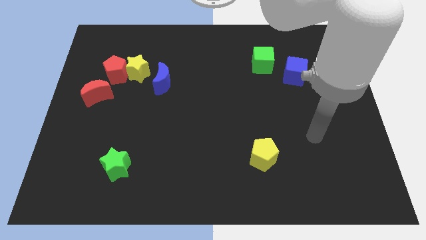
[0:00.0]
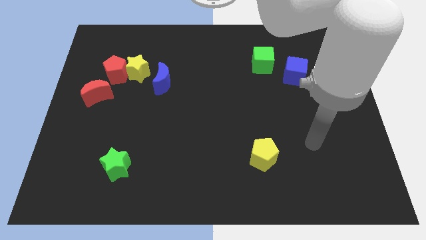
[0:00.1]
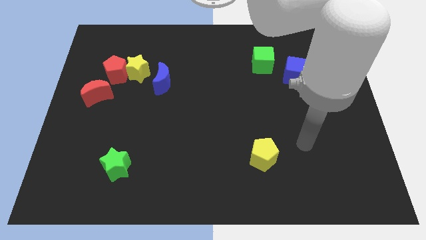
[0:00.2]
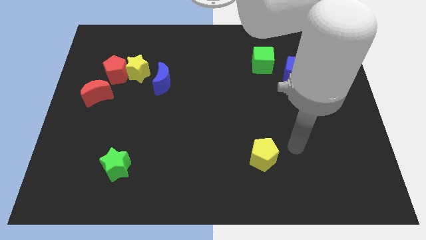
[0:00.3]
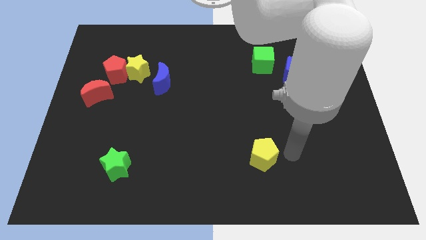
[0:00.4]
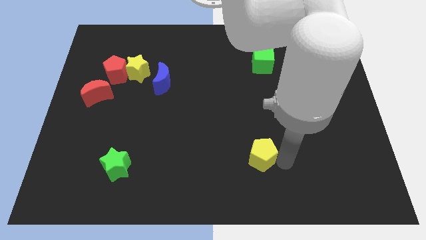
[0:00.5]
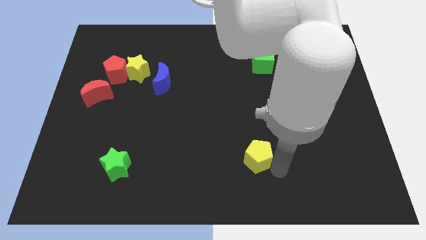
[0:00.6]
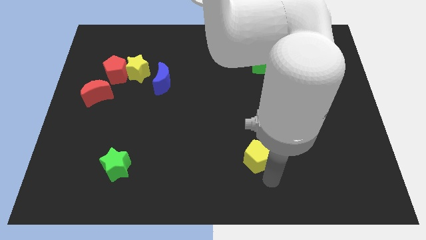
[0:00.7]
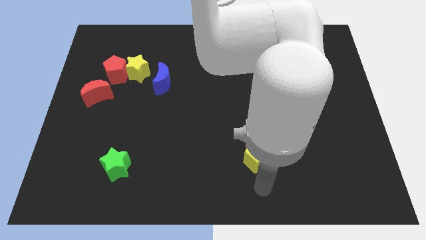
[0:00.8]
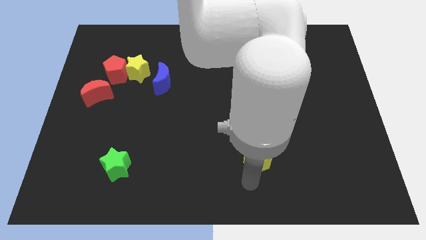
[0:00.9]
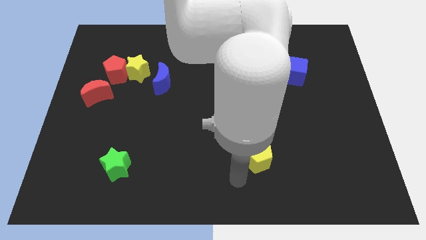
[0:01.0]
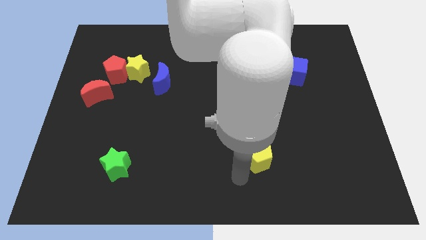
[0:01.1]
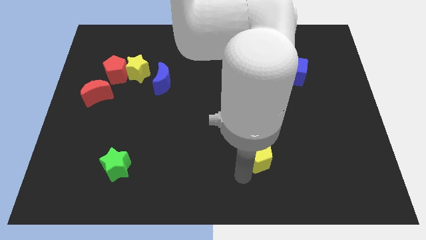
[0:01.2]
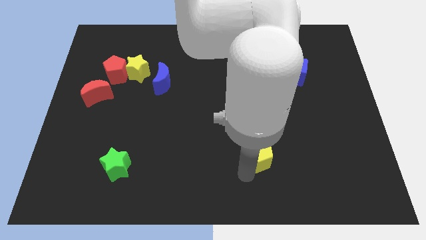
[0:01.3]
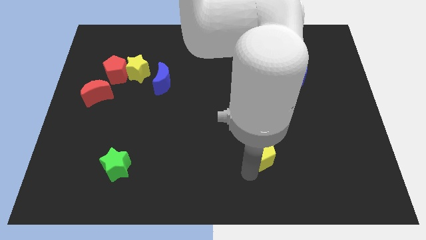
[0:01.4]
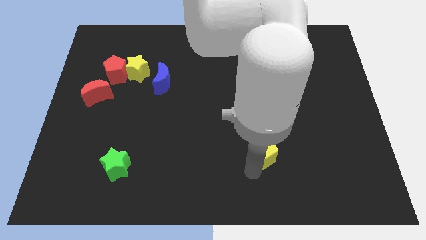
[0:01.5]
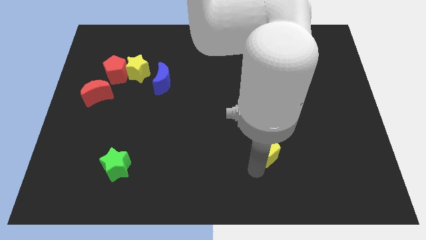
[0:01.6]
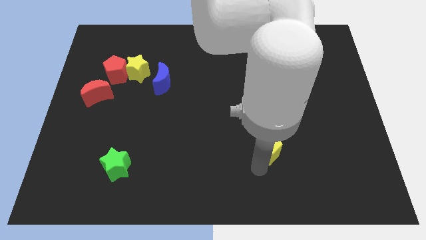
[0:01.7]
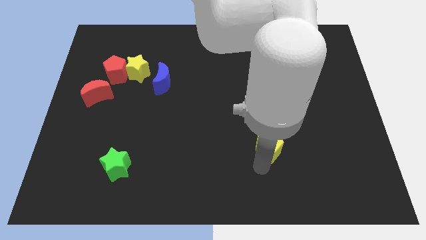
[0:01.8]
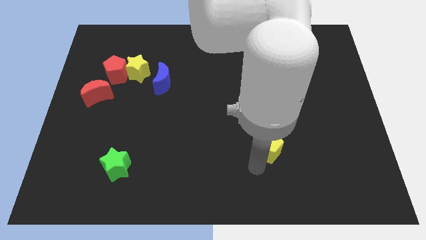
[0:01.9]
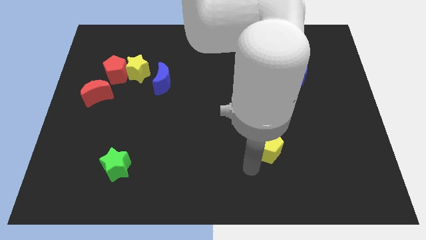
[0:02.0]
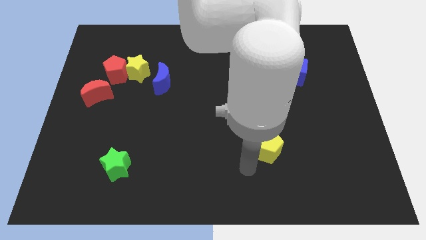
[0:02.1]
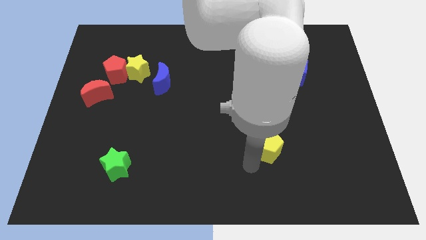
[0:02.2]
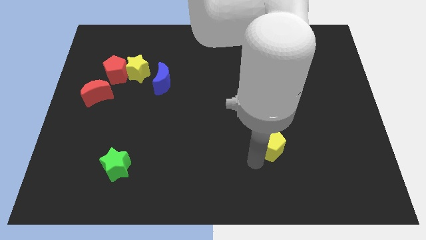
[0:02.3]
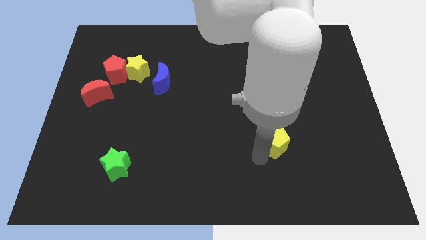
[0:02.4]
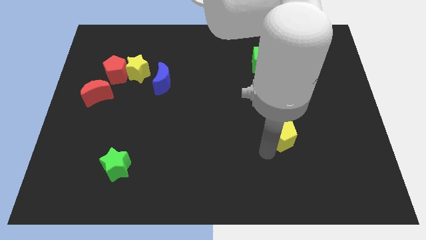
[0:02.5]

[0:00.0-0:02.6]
slightly slide the yellow pentagon upwards and right diagonally

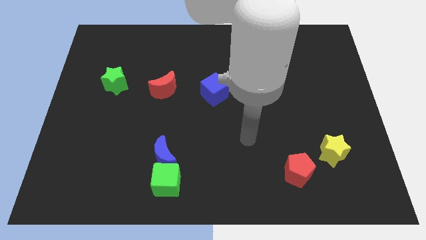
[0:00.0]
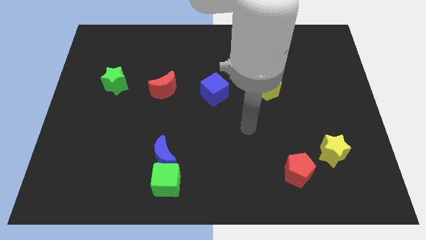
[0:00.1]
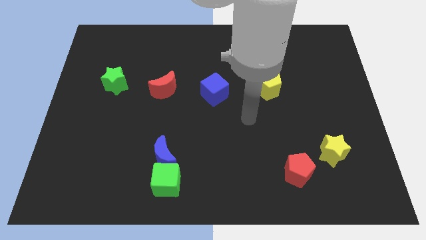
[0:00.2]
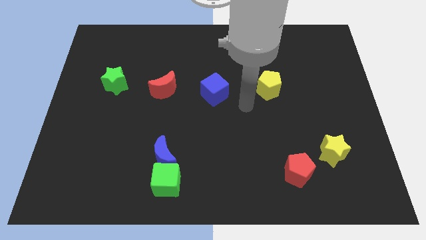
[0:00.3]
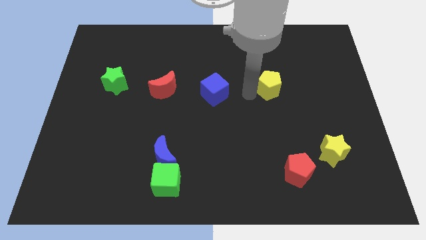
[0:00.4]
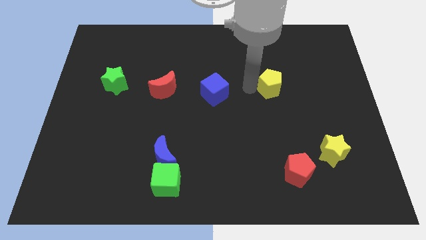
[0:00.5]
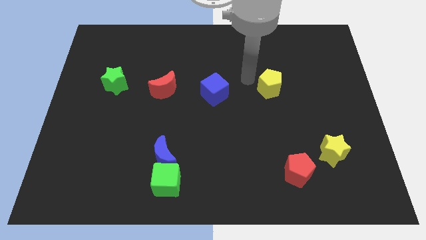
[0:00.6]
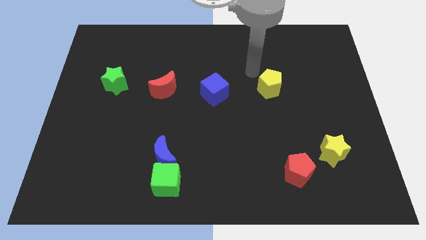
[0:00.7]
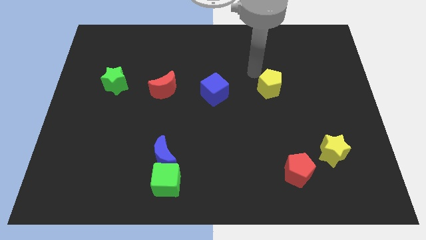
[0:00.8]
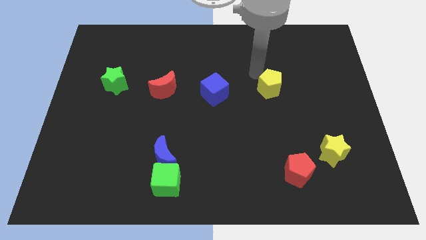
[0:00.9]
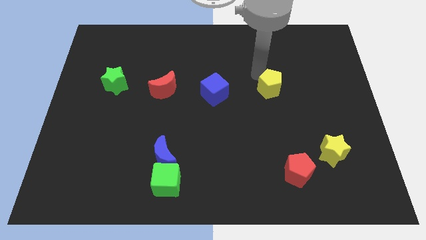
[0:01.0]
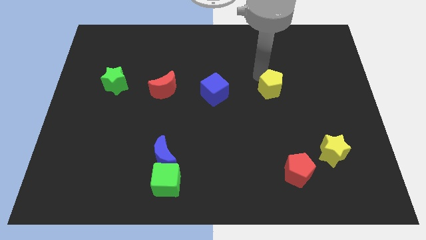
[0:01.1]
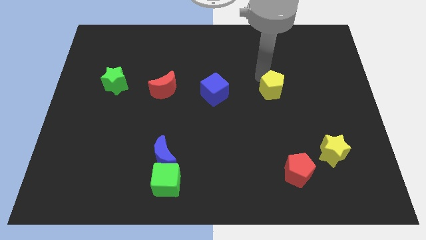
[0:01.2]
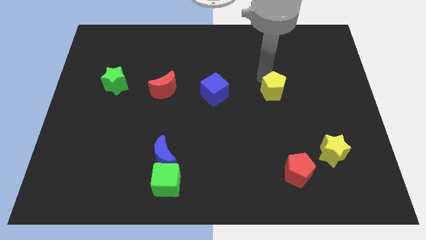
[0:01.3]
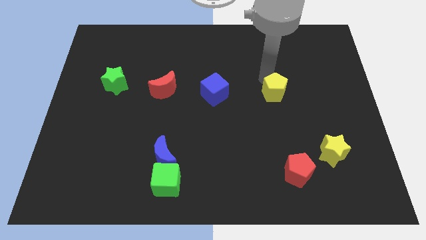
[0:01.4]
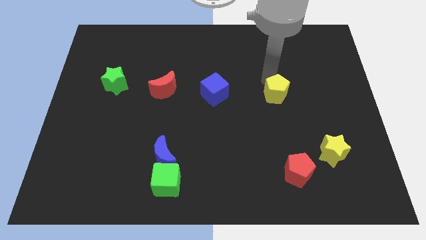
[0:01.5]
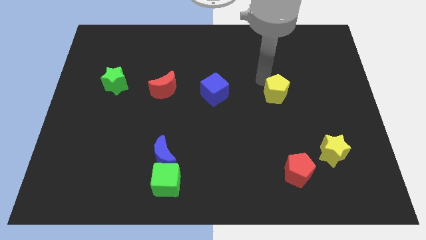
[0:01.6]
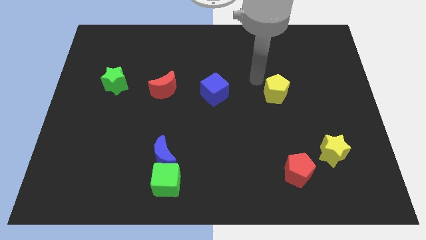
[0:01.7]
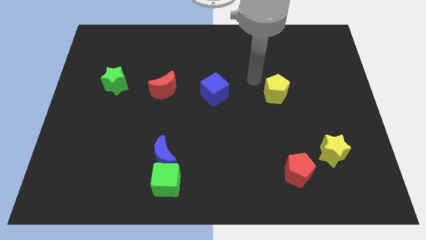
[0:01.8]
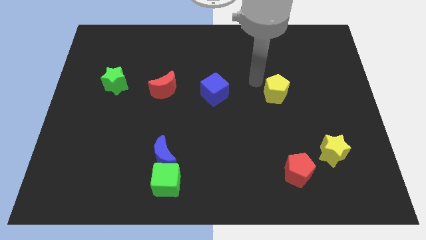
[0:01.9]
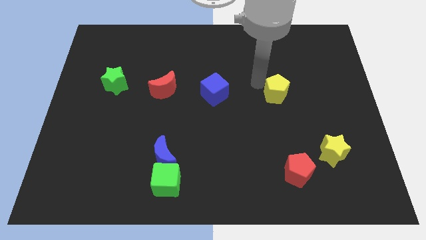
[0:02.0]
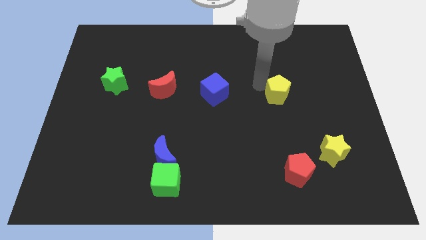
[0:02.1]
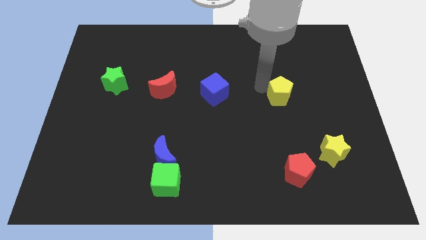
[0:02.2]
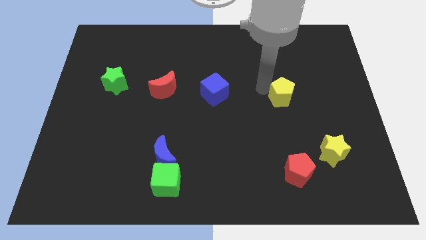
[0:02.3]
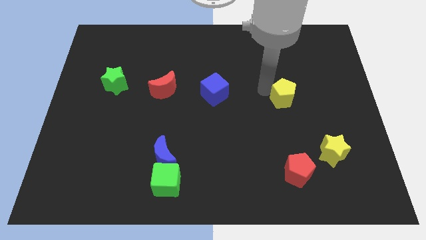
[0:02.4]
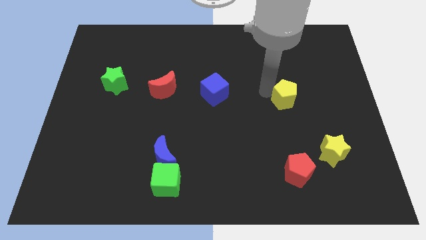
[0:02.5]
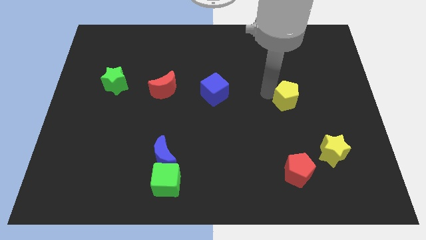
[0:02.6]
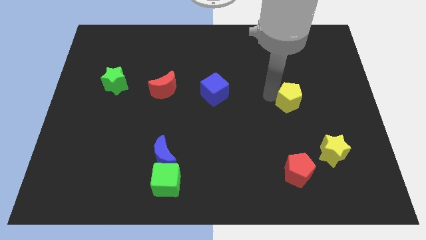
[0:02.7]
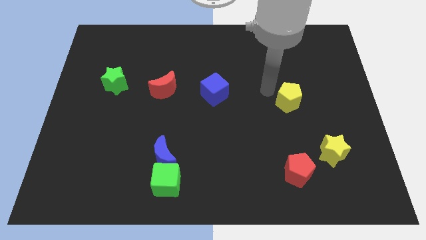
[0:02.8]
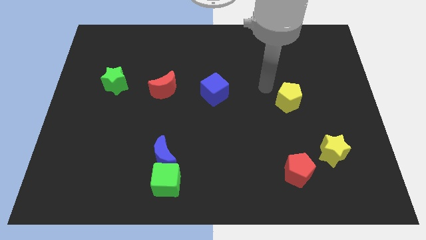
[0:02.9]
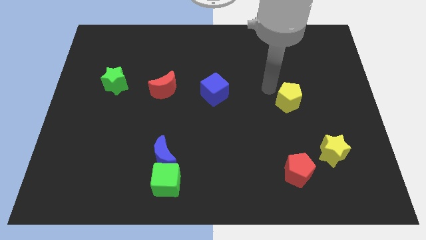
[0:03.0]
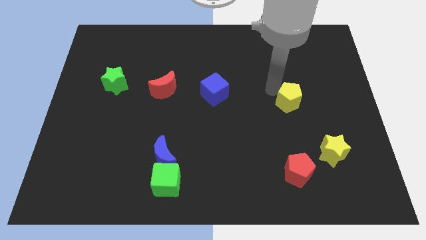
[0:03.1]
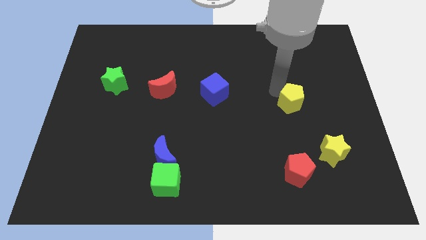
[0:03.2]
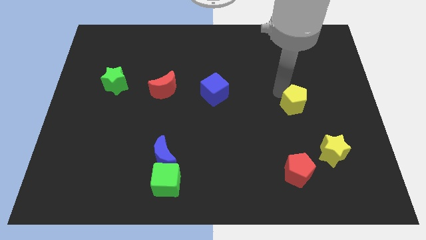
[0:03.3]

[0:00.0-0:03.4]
slightly push the yellow pentagon downwards and right

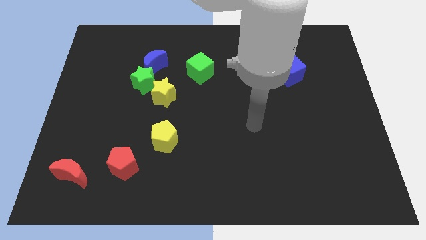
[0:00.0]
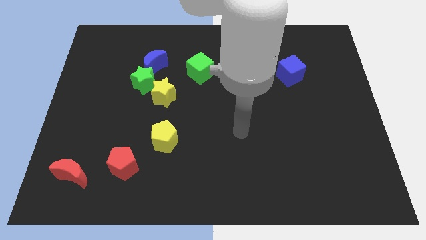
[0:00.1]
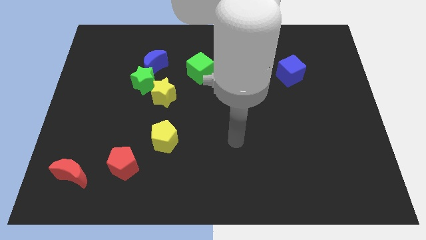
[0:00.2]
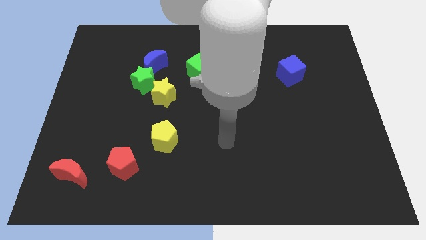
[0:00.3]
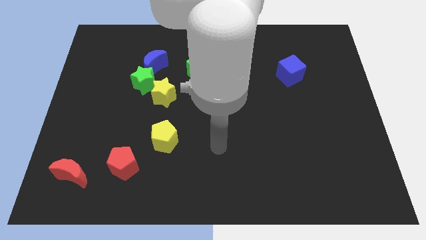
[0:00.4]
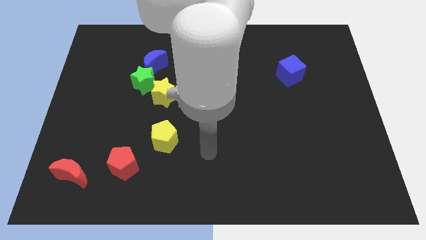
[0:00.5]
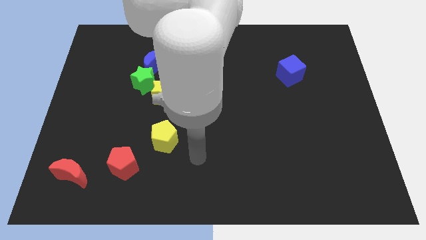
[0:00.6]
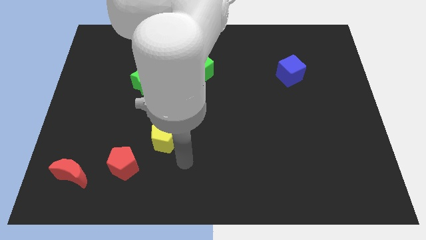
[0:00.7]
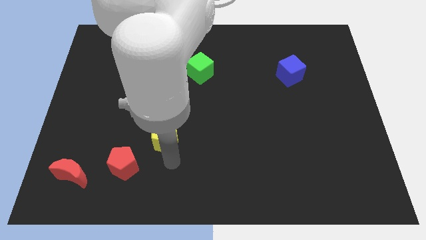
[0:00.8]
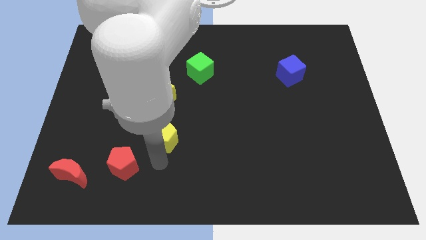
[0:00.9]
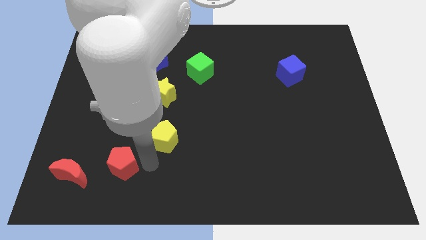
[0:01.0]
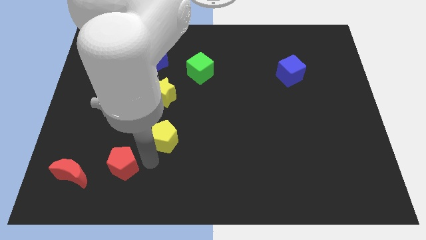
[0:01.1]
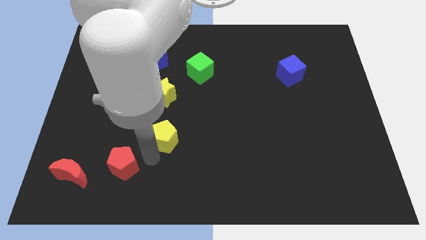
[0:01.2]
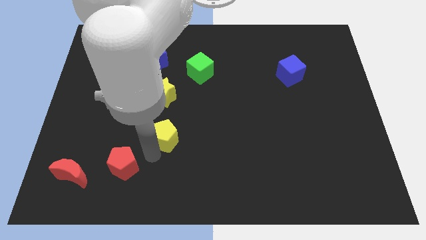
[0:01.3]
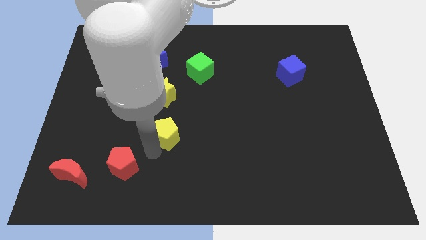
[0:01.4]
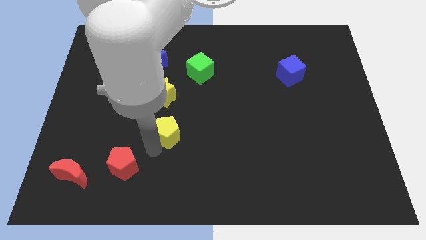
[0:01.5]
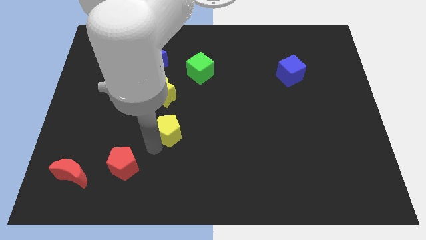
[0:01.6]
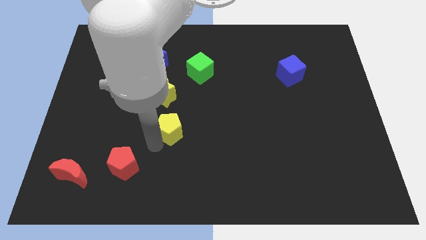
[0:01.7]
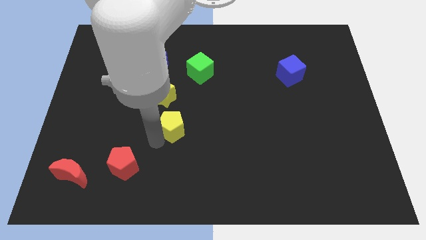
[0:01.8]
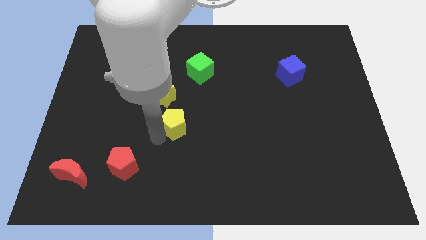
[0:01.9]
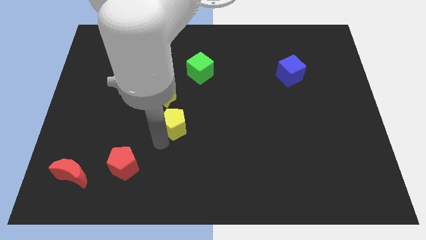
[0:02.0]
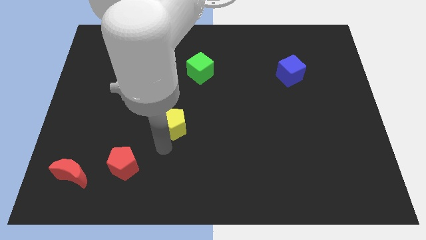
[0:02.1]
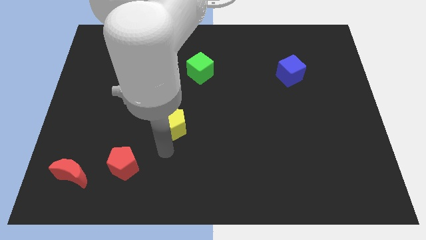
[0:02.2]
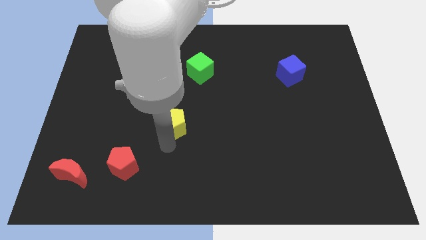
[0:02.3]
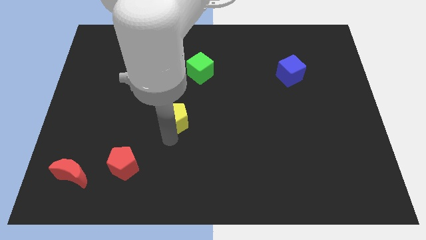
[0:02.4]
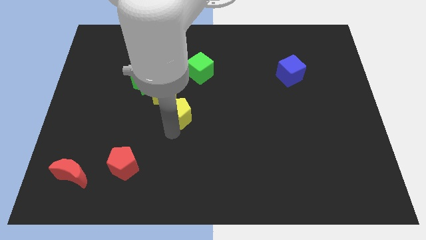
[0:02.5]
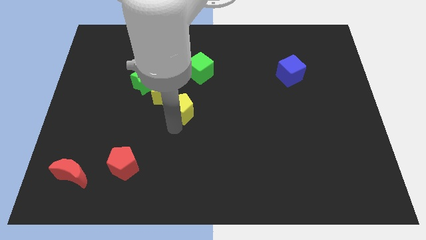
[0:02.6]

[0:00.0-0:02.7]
push the yellow pentagon up somewhat
